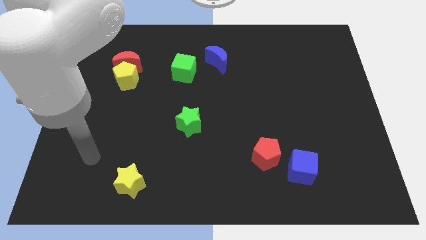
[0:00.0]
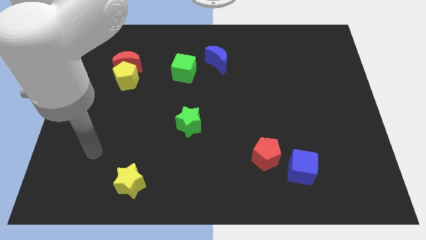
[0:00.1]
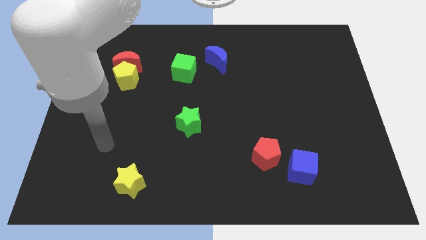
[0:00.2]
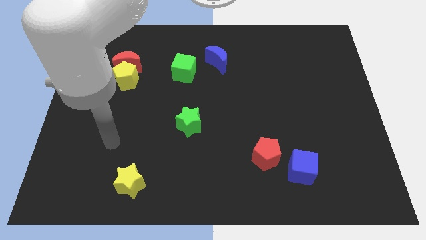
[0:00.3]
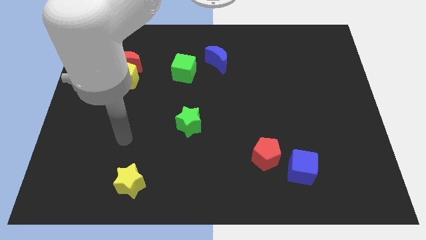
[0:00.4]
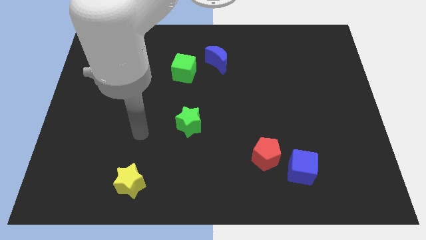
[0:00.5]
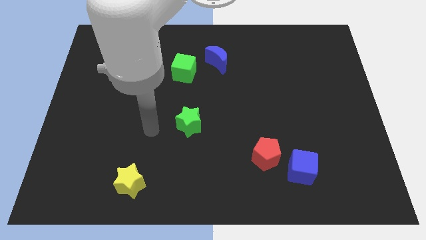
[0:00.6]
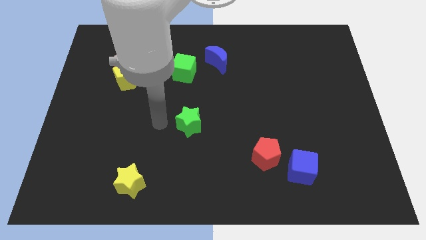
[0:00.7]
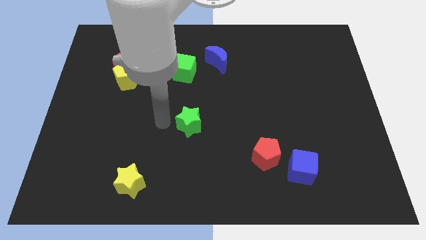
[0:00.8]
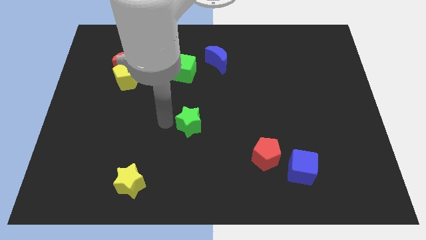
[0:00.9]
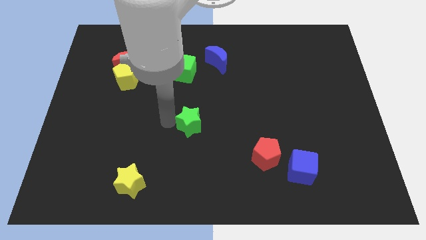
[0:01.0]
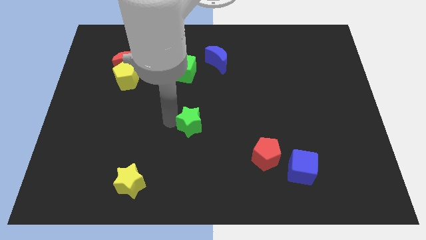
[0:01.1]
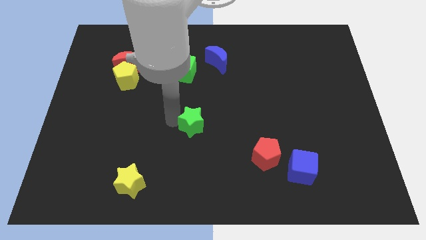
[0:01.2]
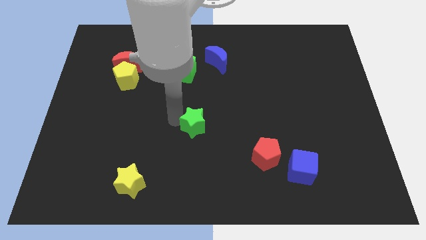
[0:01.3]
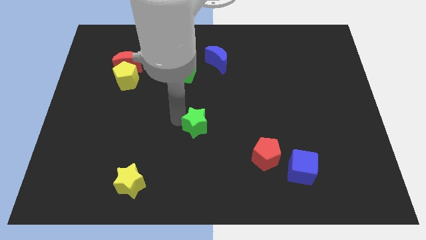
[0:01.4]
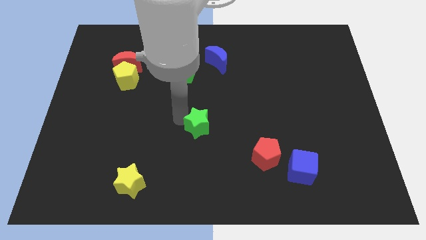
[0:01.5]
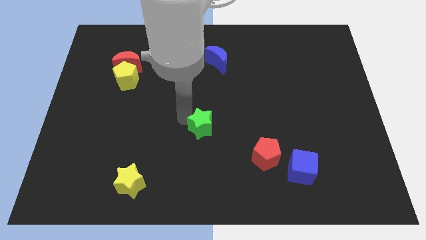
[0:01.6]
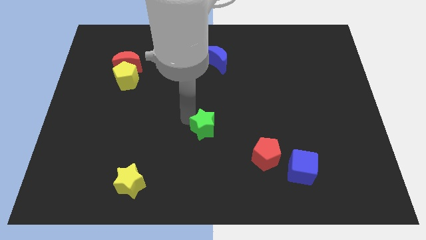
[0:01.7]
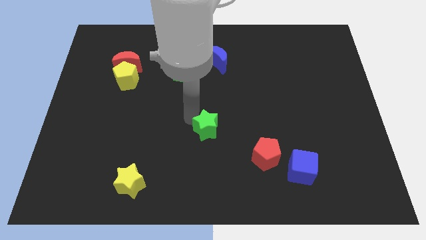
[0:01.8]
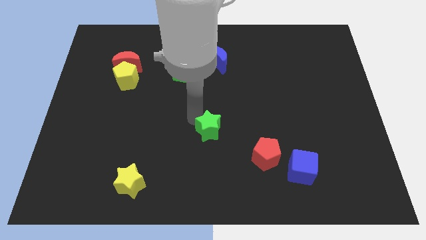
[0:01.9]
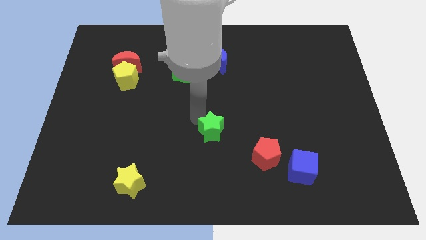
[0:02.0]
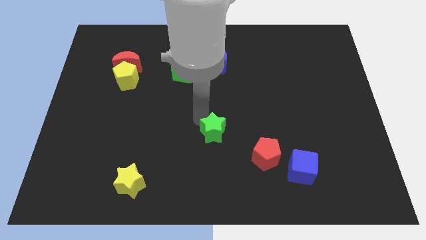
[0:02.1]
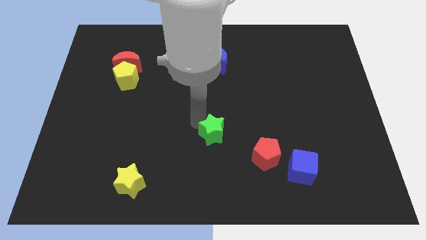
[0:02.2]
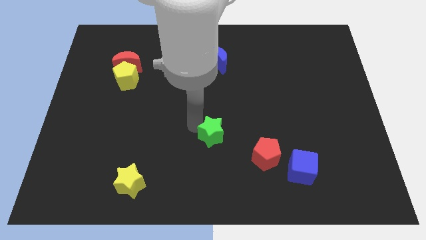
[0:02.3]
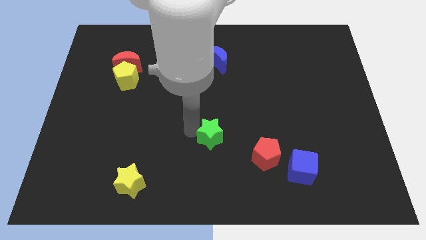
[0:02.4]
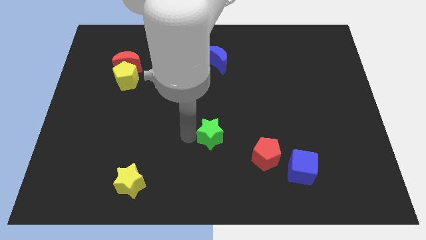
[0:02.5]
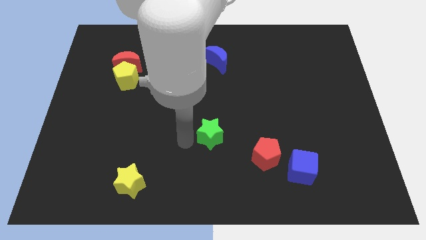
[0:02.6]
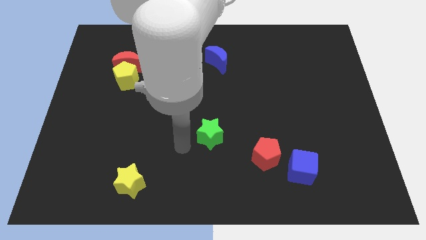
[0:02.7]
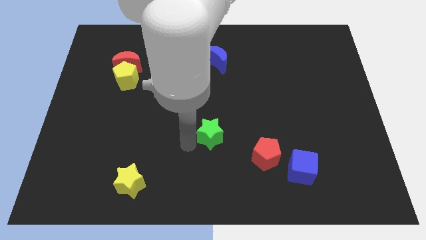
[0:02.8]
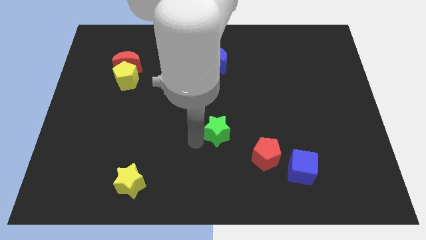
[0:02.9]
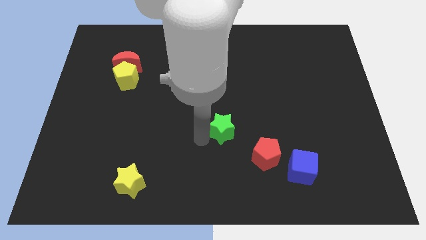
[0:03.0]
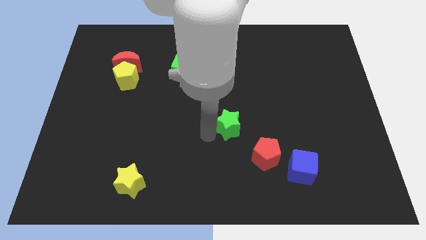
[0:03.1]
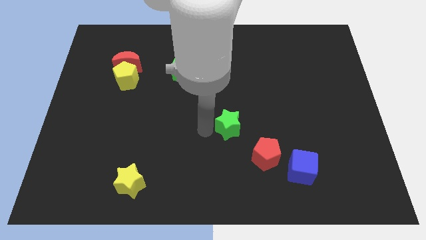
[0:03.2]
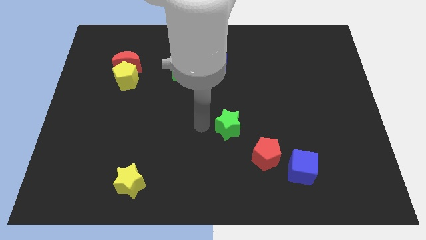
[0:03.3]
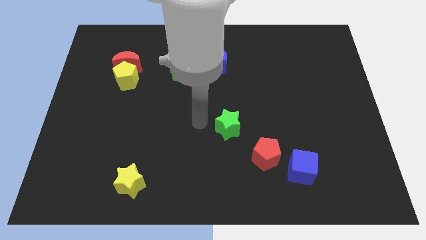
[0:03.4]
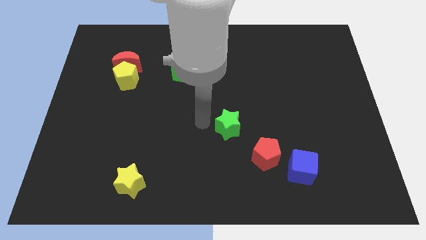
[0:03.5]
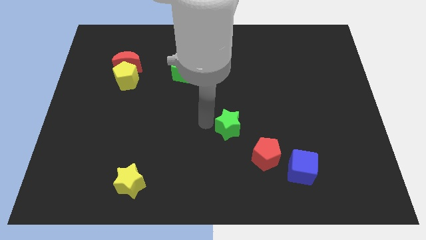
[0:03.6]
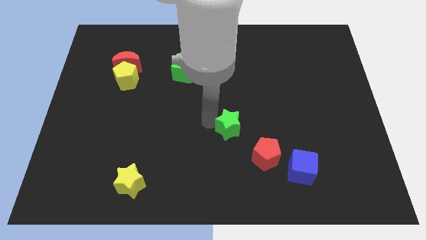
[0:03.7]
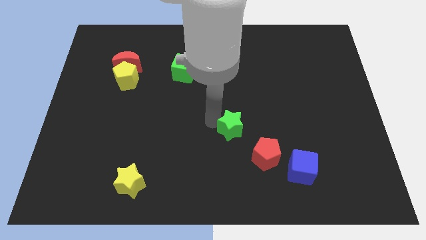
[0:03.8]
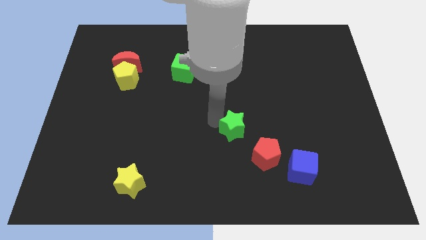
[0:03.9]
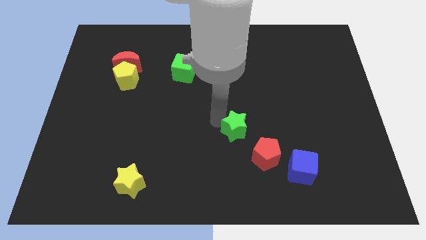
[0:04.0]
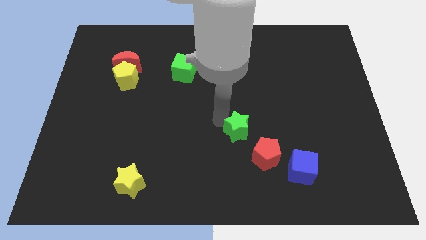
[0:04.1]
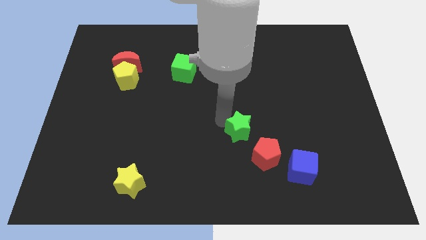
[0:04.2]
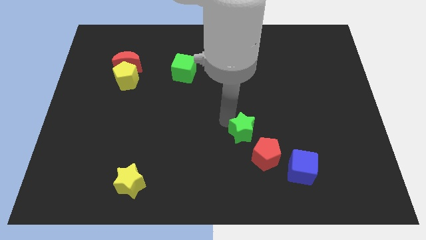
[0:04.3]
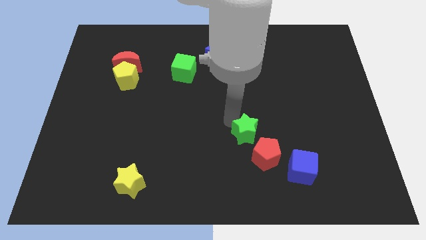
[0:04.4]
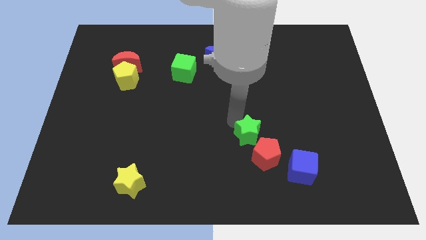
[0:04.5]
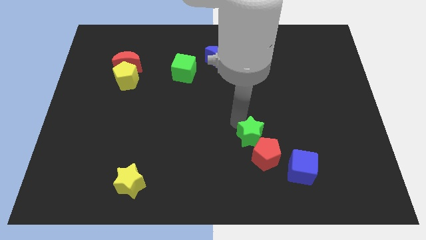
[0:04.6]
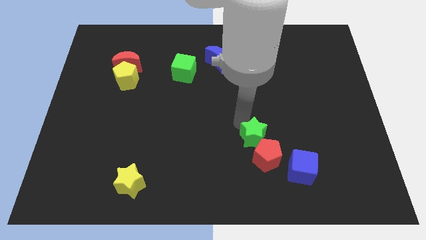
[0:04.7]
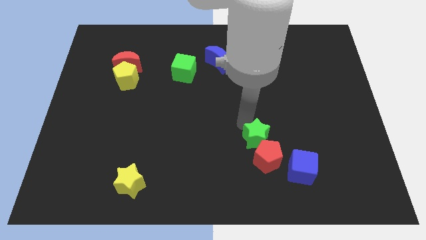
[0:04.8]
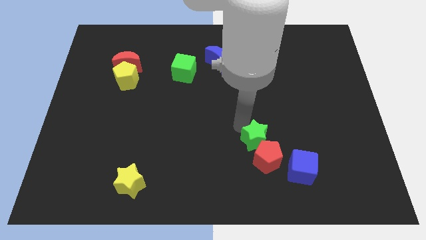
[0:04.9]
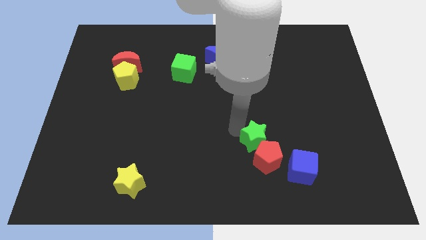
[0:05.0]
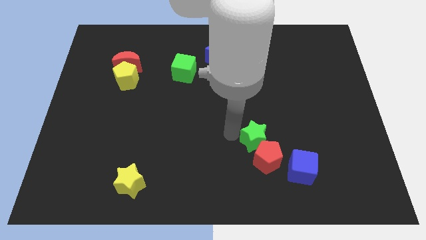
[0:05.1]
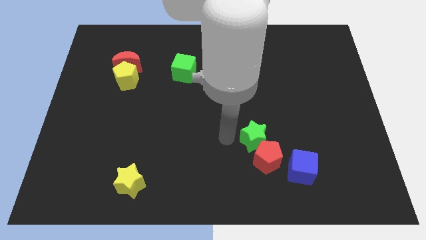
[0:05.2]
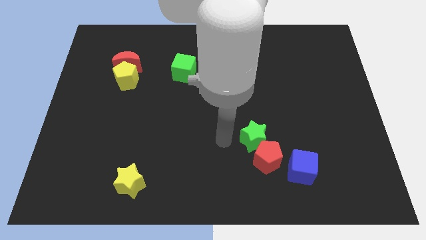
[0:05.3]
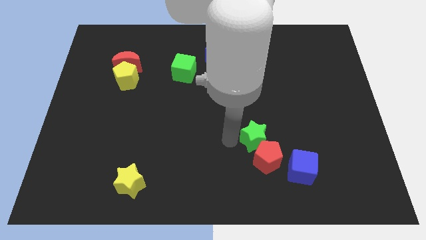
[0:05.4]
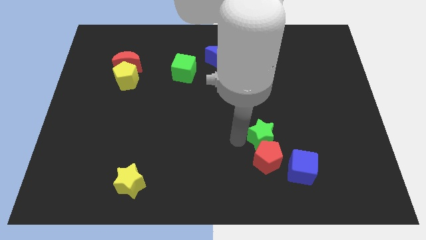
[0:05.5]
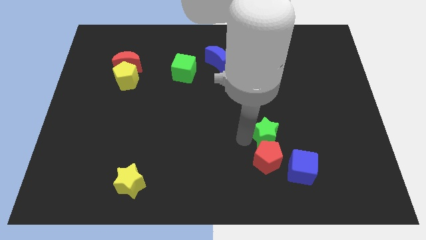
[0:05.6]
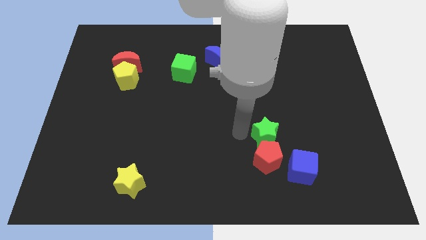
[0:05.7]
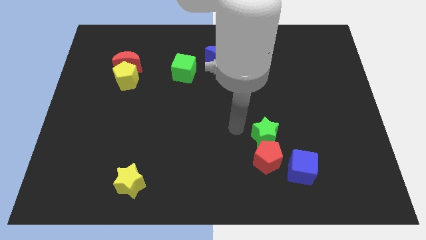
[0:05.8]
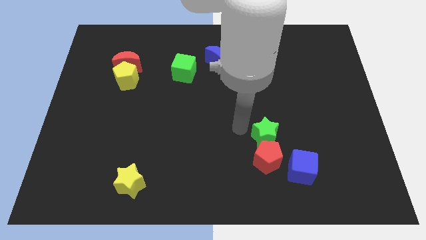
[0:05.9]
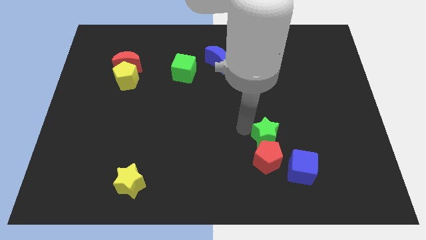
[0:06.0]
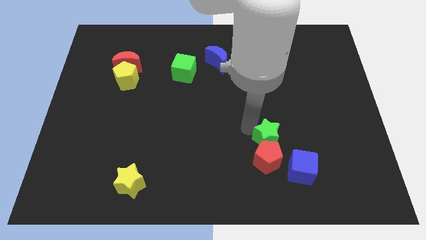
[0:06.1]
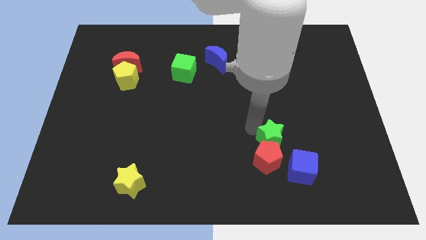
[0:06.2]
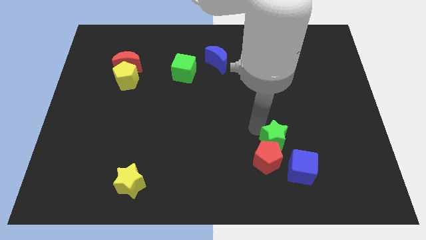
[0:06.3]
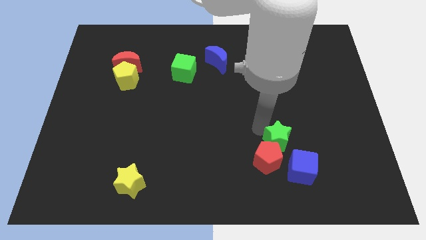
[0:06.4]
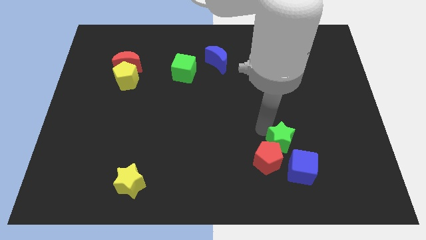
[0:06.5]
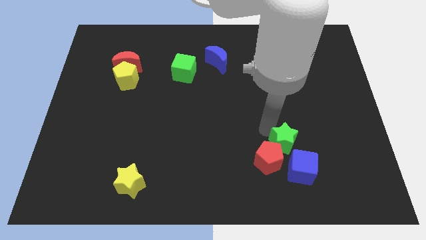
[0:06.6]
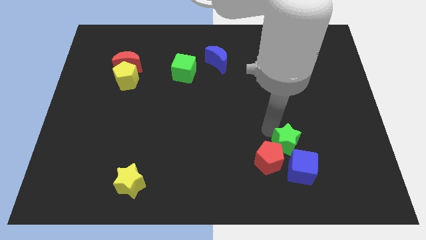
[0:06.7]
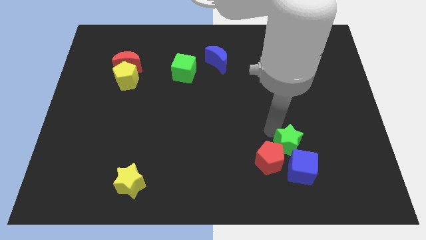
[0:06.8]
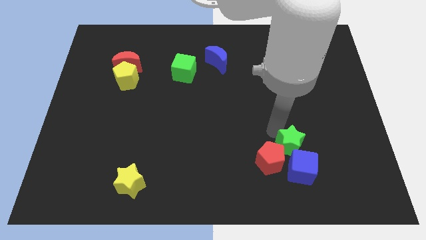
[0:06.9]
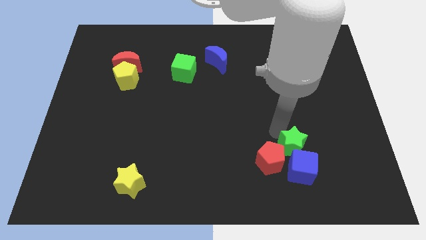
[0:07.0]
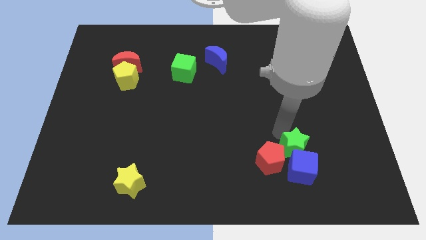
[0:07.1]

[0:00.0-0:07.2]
push the green star to the top right of the blue cube
